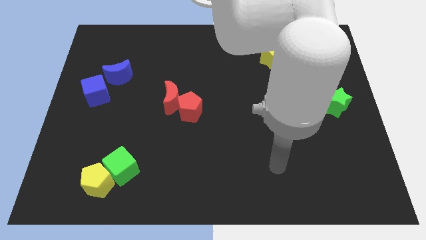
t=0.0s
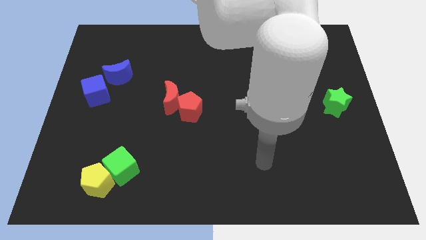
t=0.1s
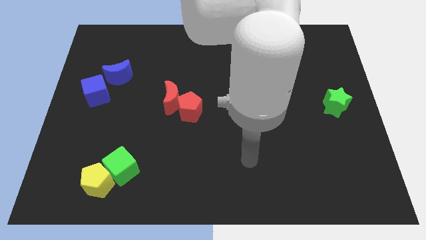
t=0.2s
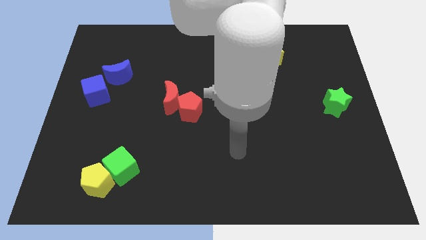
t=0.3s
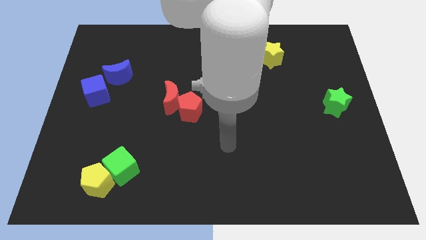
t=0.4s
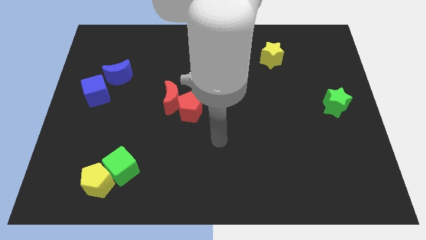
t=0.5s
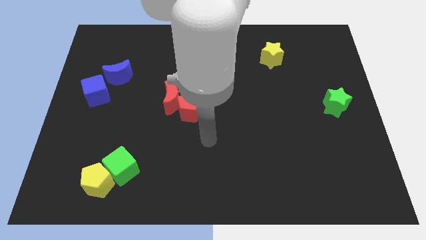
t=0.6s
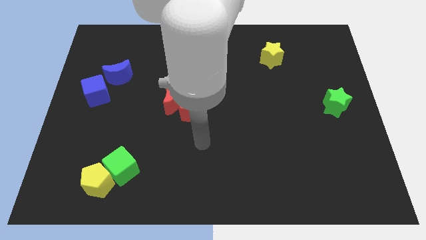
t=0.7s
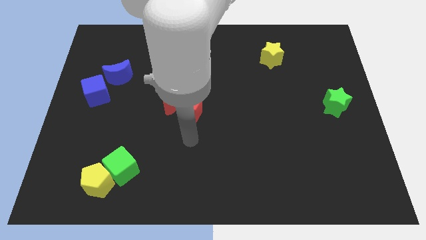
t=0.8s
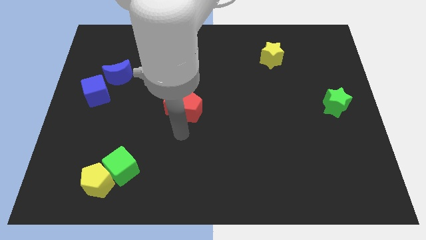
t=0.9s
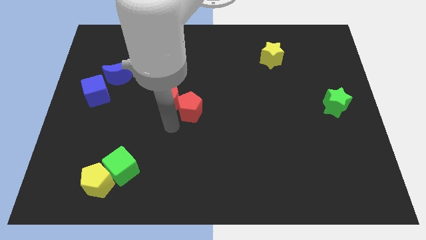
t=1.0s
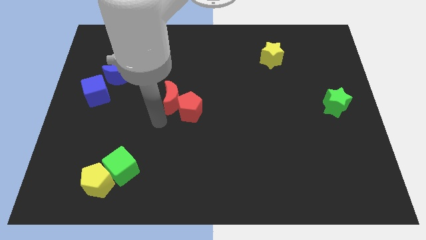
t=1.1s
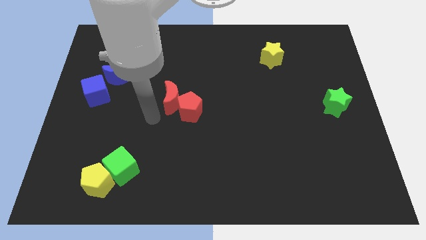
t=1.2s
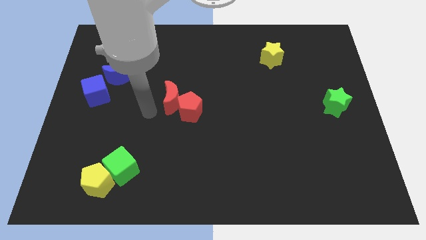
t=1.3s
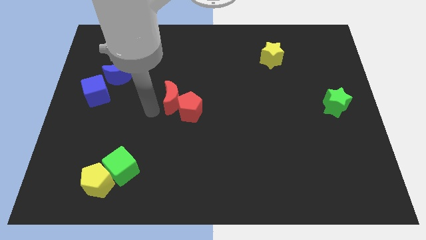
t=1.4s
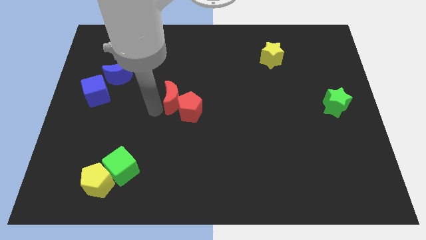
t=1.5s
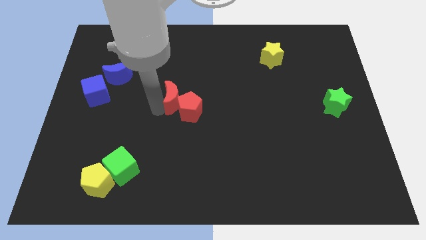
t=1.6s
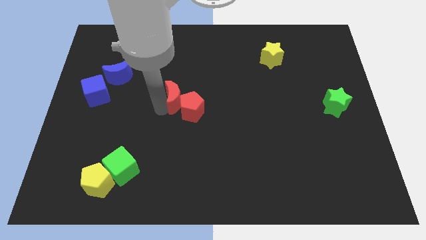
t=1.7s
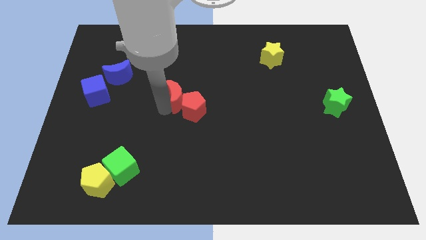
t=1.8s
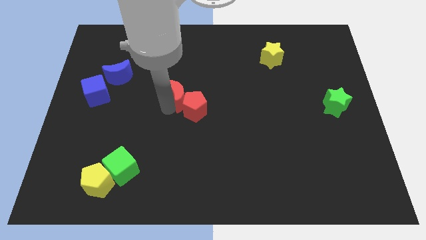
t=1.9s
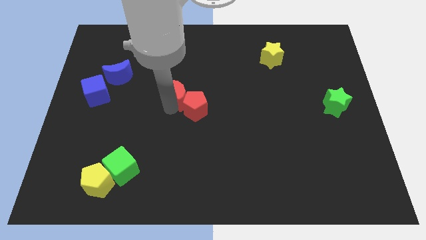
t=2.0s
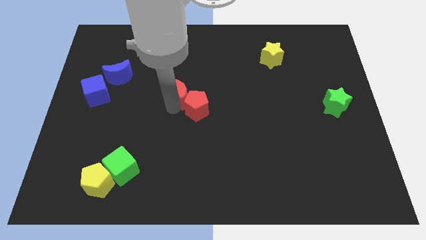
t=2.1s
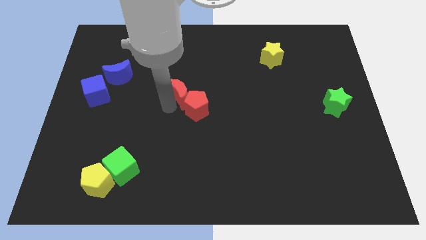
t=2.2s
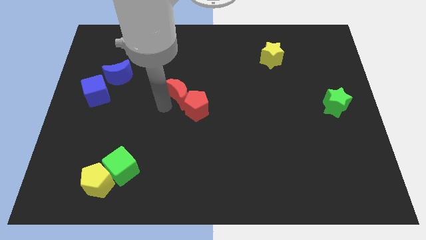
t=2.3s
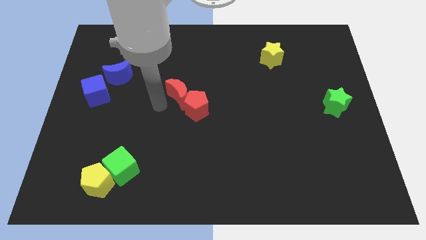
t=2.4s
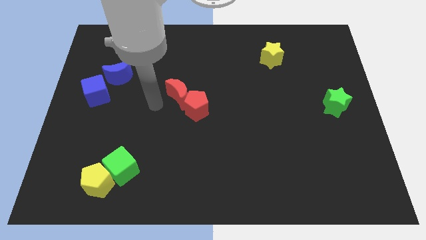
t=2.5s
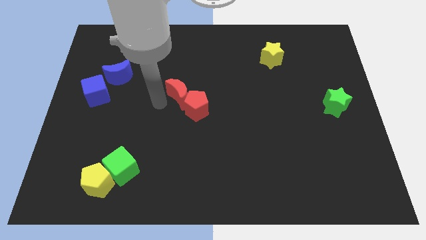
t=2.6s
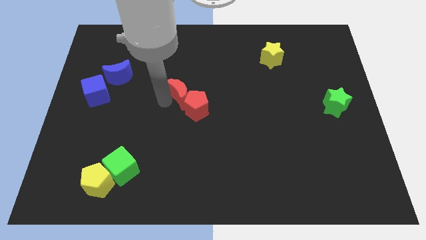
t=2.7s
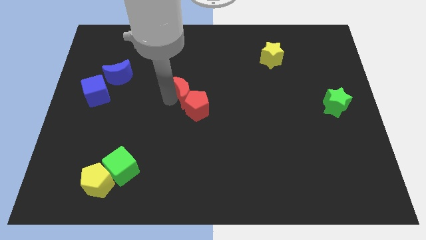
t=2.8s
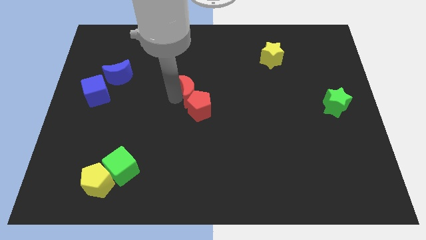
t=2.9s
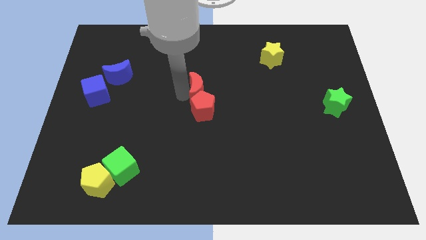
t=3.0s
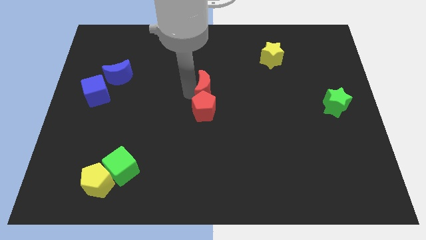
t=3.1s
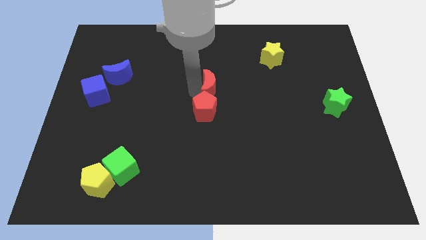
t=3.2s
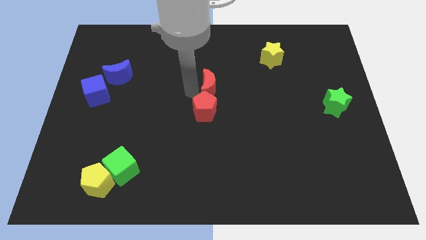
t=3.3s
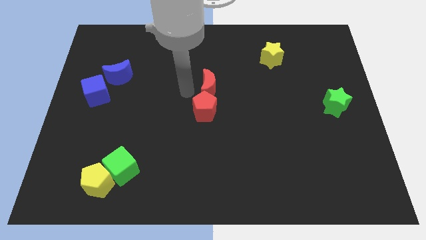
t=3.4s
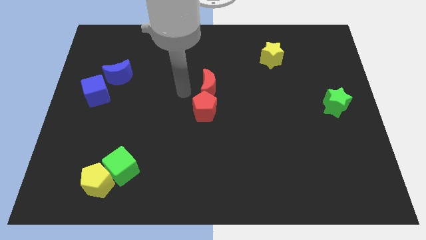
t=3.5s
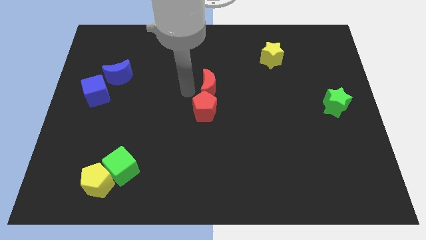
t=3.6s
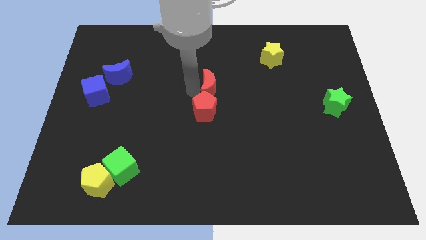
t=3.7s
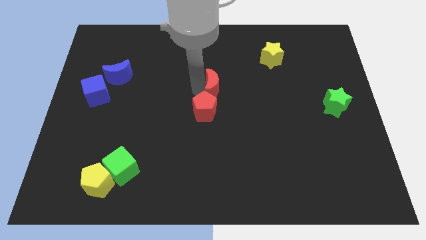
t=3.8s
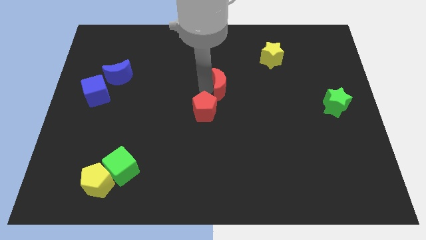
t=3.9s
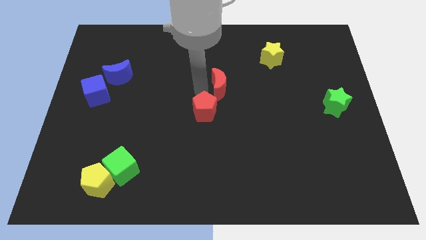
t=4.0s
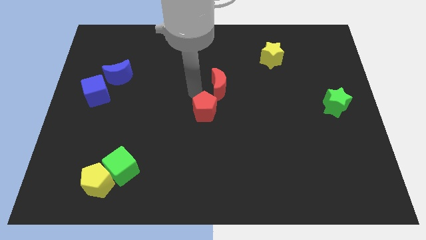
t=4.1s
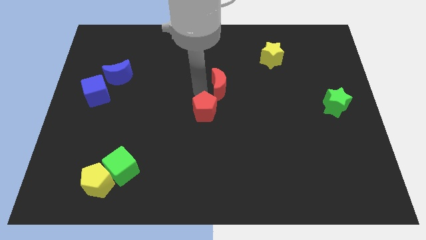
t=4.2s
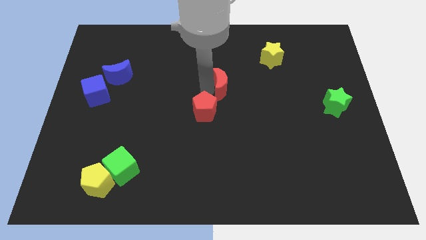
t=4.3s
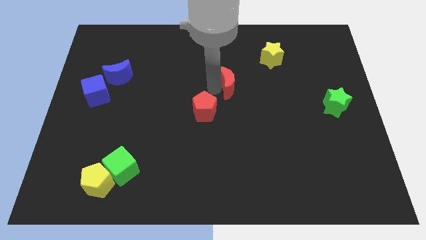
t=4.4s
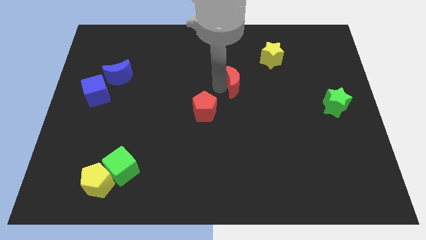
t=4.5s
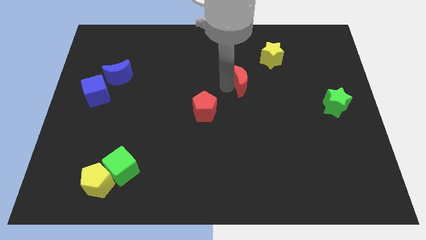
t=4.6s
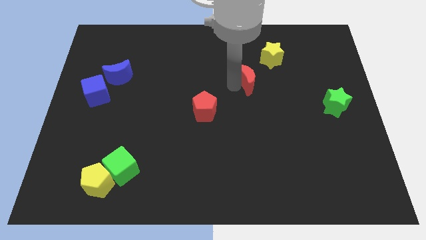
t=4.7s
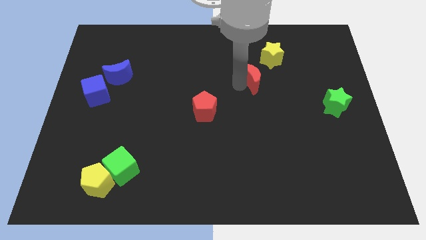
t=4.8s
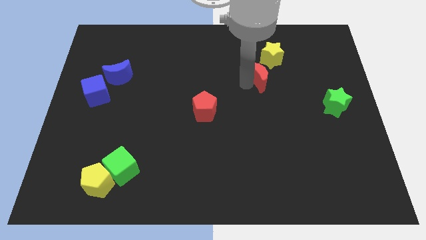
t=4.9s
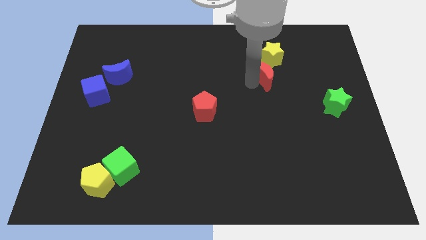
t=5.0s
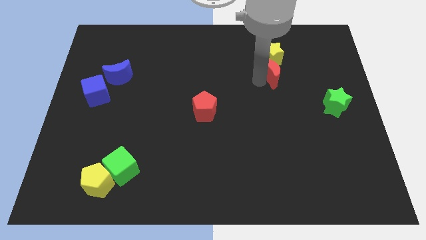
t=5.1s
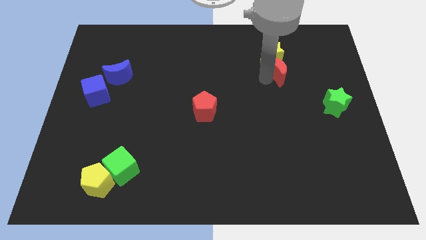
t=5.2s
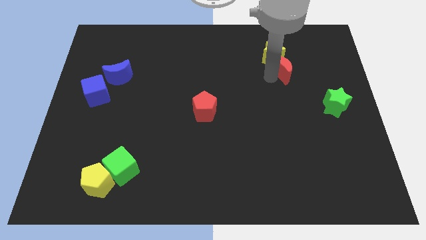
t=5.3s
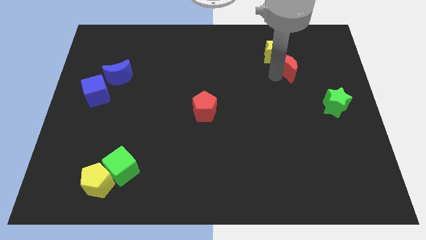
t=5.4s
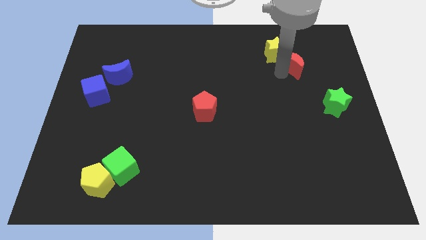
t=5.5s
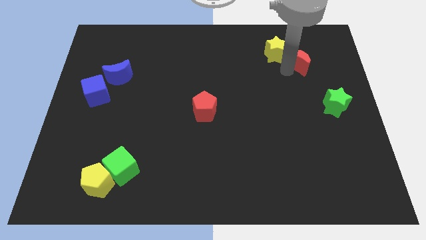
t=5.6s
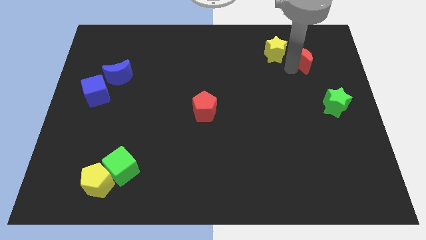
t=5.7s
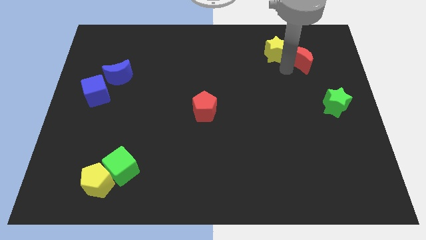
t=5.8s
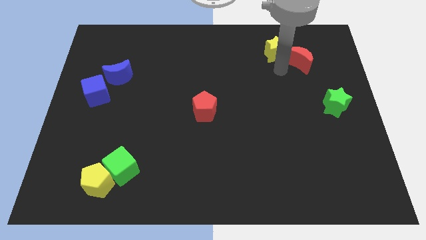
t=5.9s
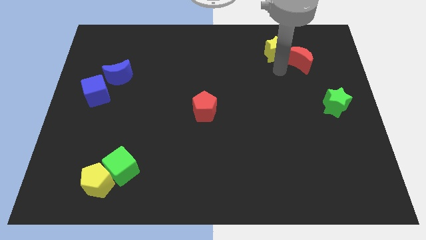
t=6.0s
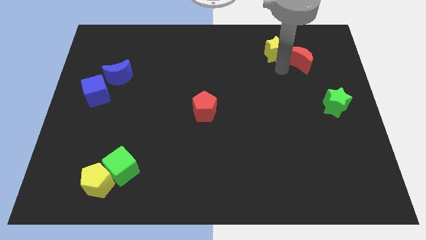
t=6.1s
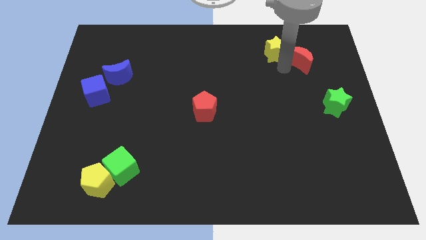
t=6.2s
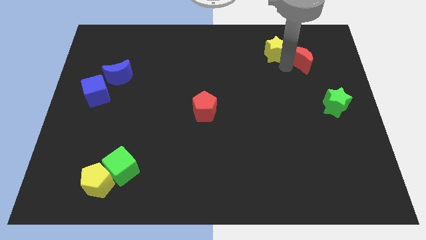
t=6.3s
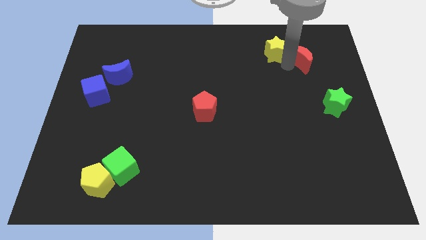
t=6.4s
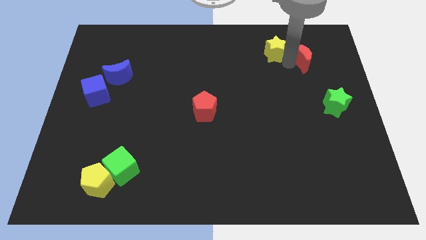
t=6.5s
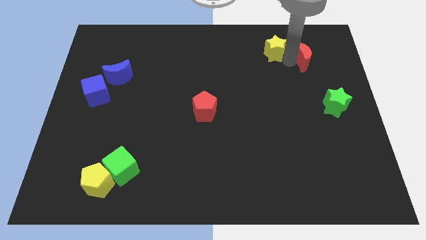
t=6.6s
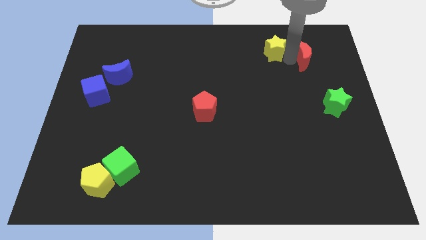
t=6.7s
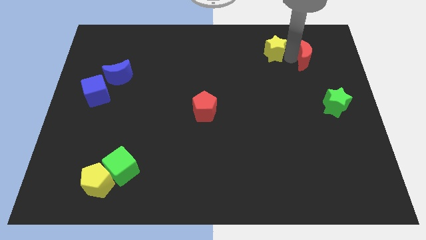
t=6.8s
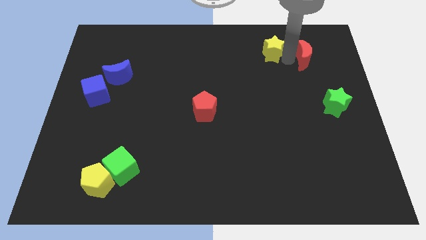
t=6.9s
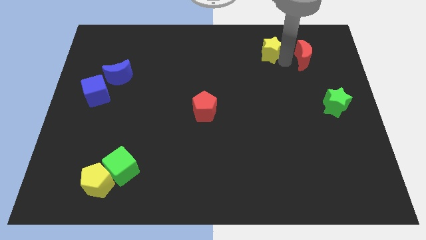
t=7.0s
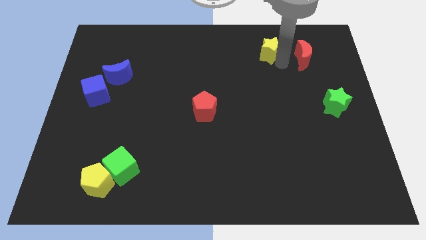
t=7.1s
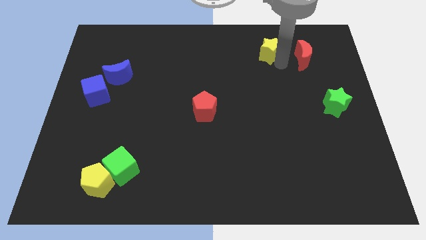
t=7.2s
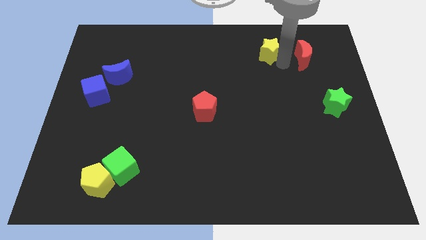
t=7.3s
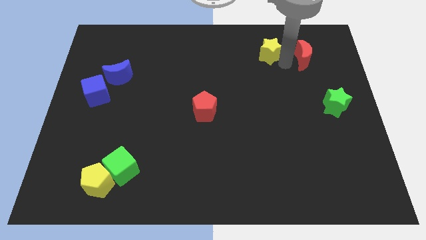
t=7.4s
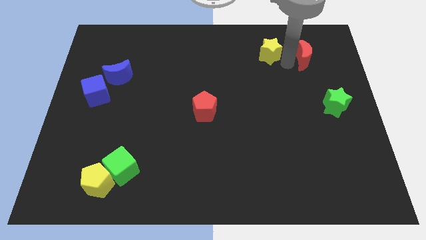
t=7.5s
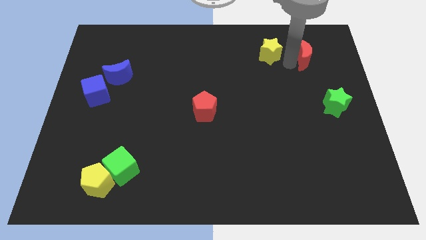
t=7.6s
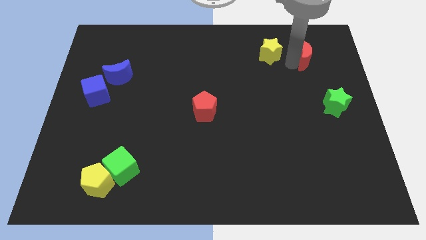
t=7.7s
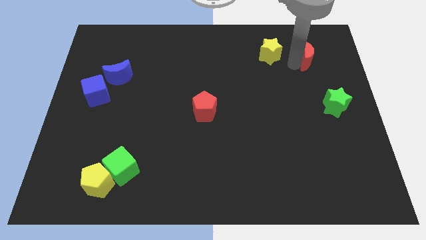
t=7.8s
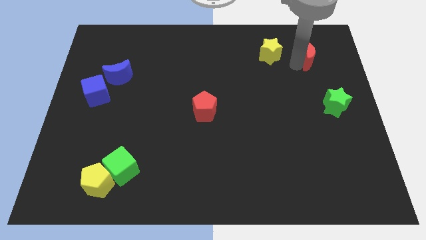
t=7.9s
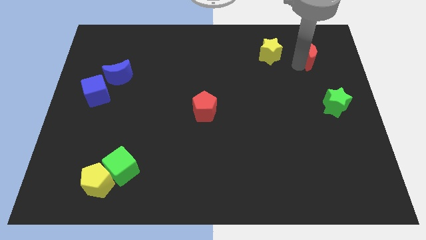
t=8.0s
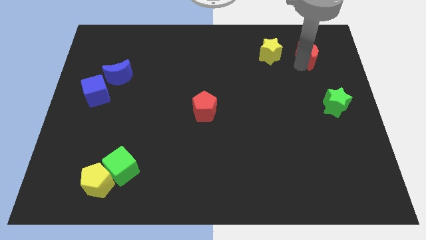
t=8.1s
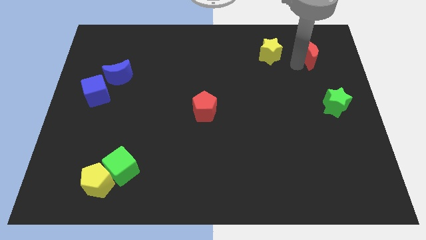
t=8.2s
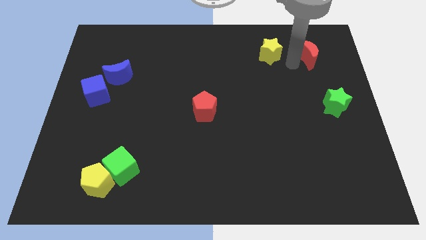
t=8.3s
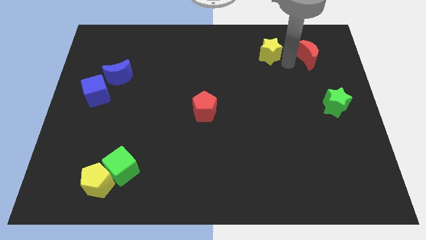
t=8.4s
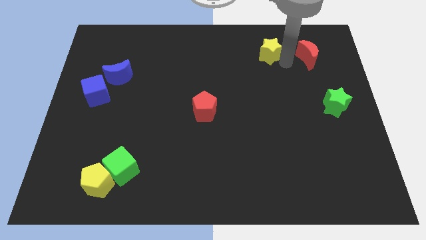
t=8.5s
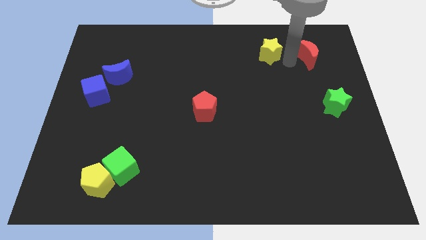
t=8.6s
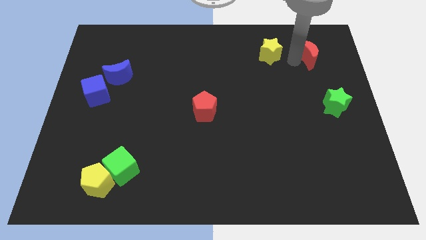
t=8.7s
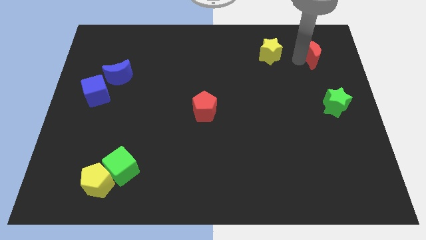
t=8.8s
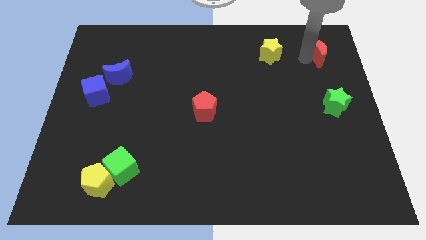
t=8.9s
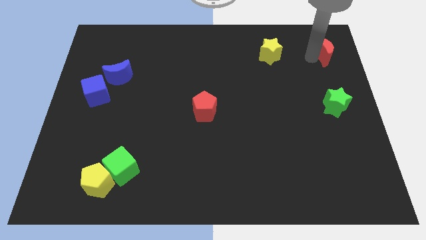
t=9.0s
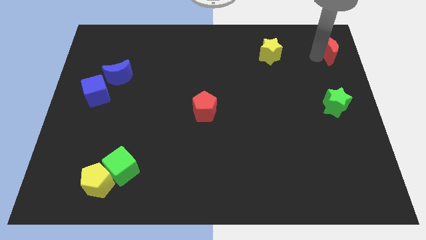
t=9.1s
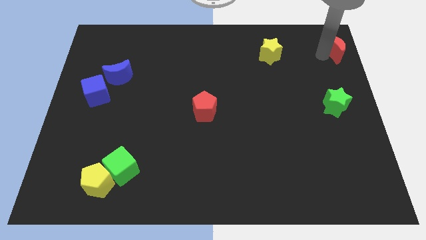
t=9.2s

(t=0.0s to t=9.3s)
move the red moon to the top right of the board
